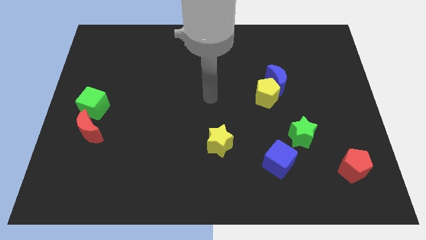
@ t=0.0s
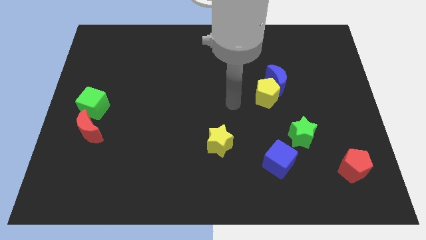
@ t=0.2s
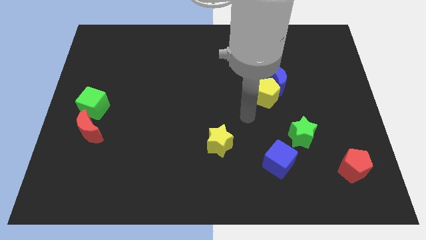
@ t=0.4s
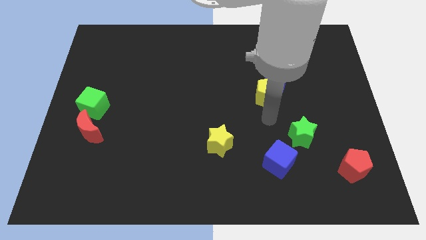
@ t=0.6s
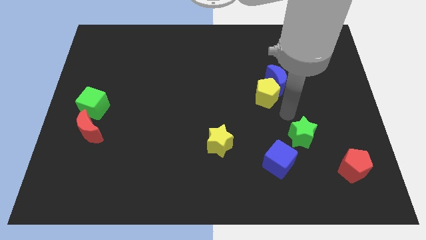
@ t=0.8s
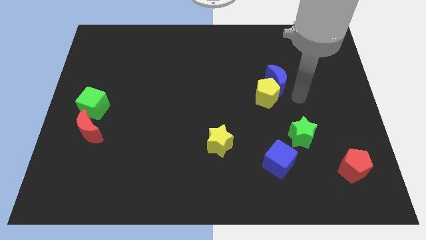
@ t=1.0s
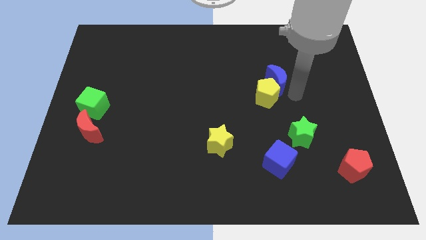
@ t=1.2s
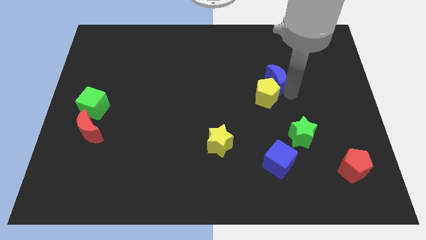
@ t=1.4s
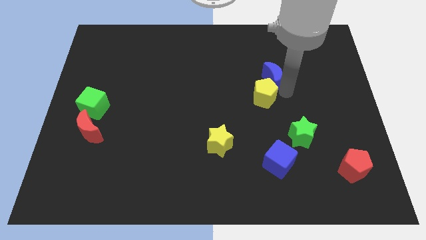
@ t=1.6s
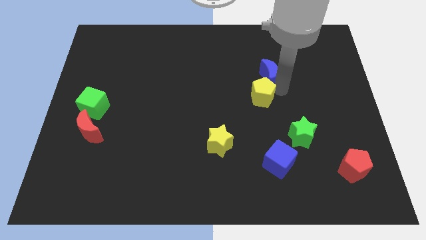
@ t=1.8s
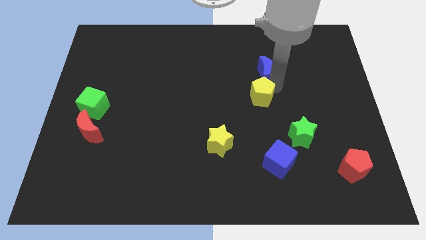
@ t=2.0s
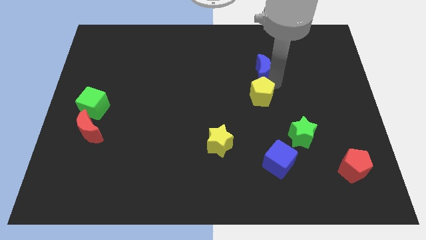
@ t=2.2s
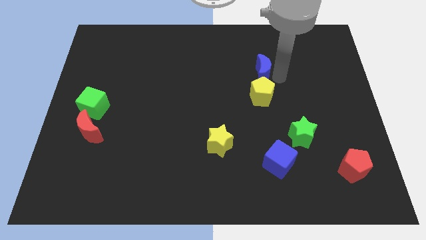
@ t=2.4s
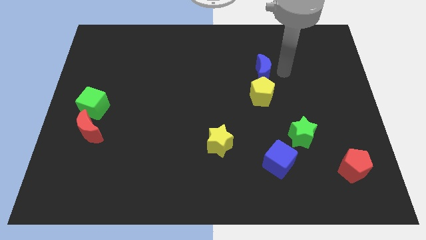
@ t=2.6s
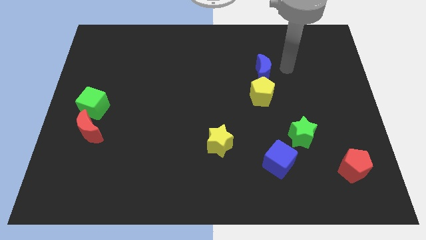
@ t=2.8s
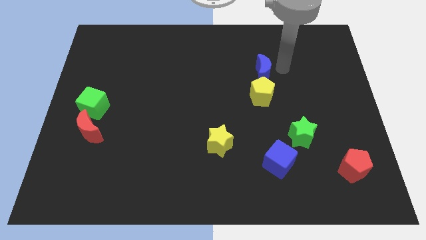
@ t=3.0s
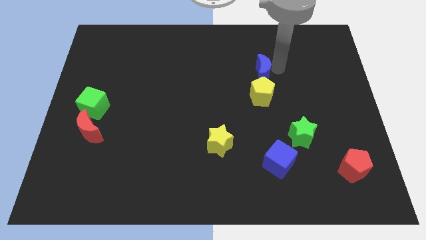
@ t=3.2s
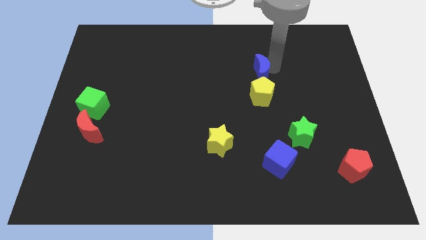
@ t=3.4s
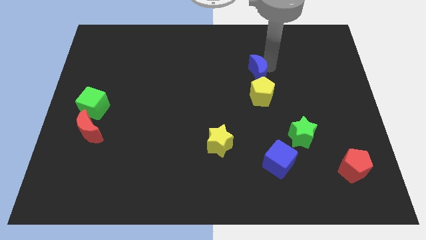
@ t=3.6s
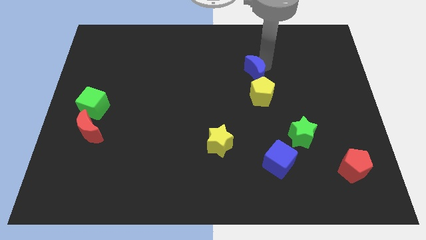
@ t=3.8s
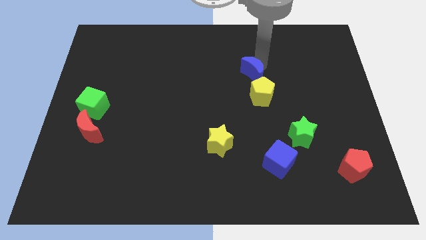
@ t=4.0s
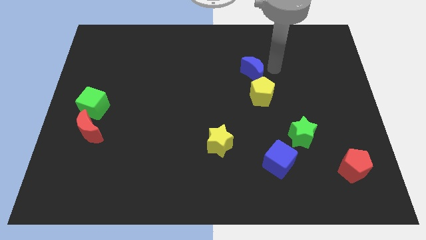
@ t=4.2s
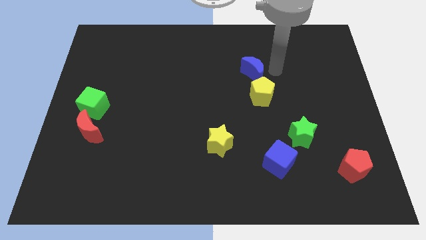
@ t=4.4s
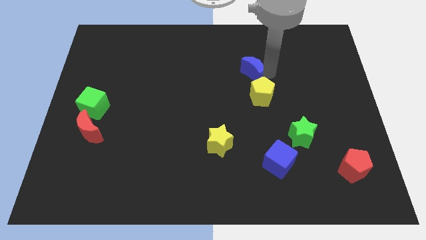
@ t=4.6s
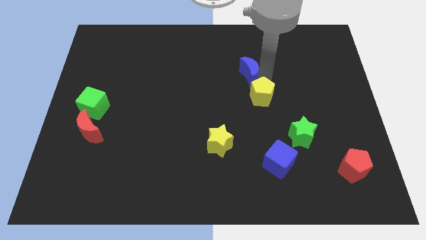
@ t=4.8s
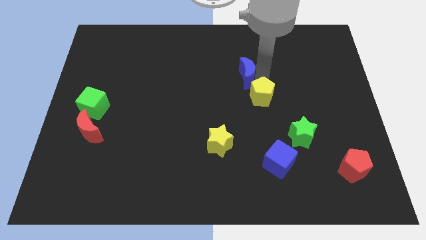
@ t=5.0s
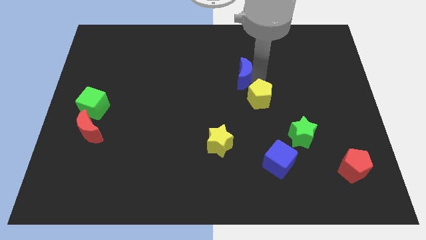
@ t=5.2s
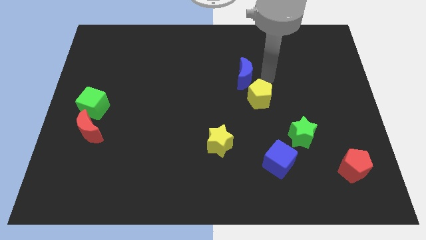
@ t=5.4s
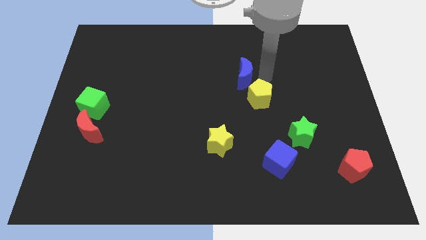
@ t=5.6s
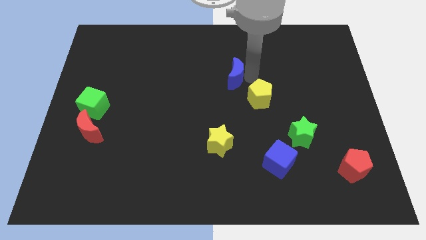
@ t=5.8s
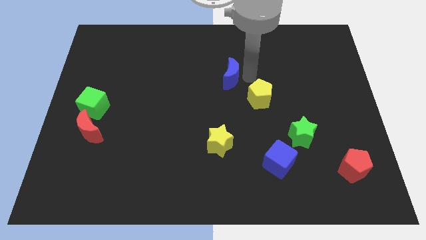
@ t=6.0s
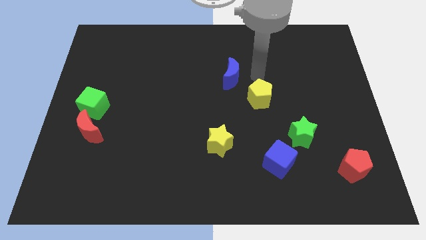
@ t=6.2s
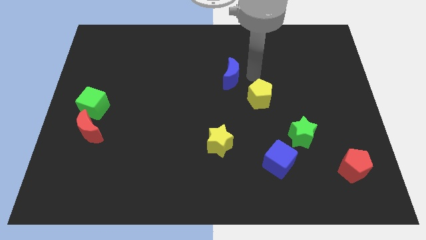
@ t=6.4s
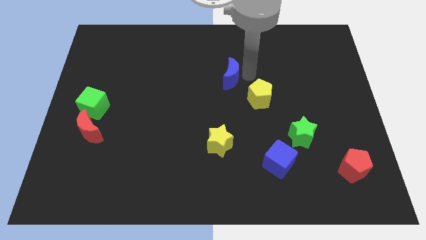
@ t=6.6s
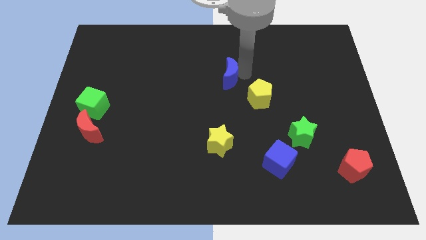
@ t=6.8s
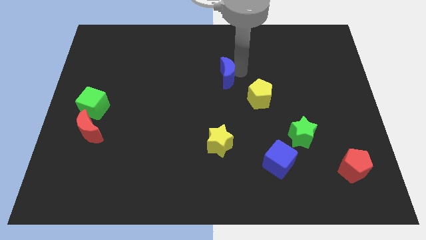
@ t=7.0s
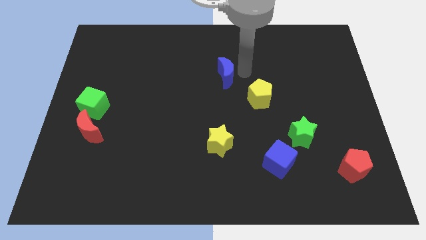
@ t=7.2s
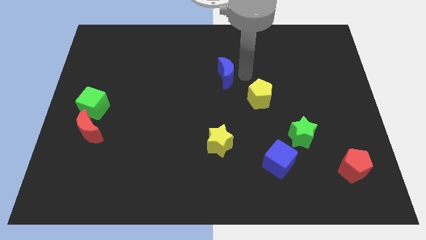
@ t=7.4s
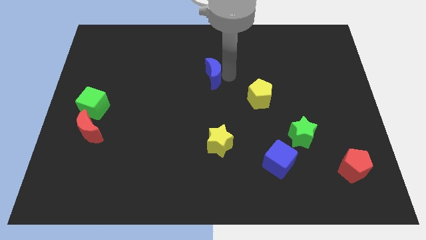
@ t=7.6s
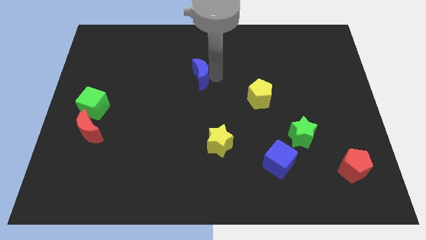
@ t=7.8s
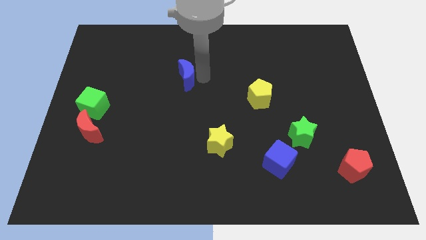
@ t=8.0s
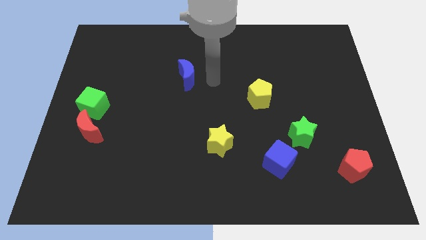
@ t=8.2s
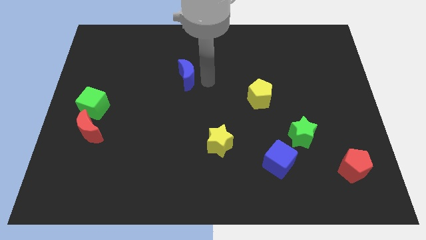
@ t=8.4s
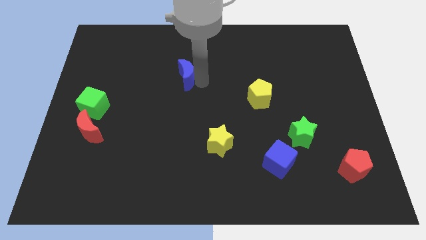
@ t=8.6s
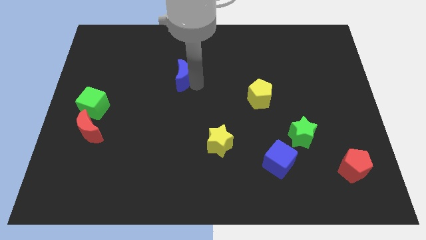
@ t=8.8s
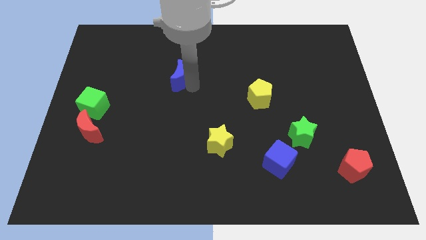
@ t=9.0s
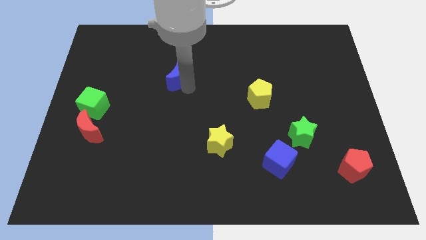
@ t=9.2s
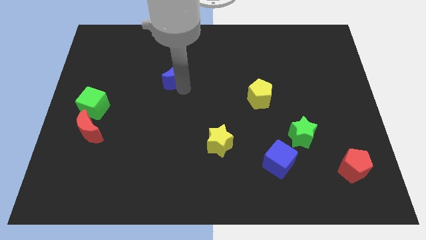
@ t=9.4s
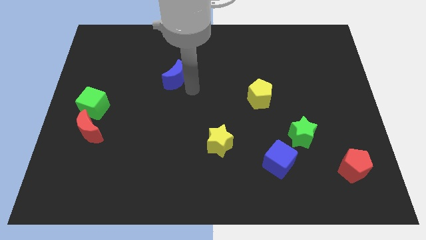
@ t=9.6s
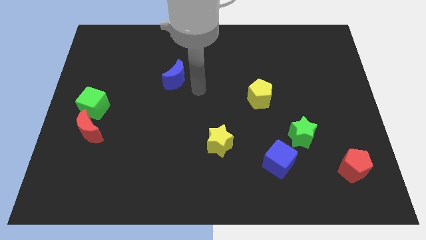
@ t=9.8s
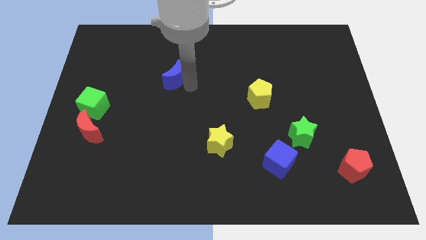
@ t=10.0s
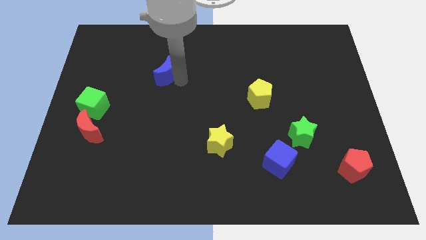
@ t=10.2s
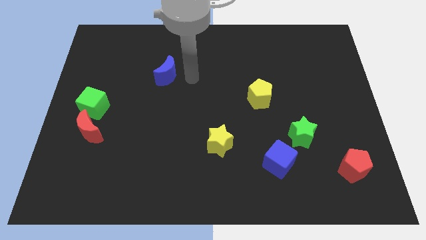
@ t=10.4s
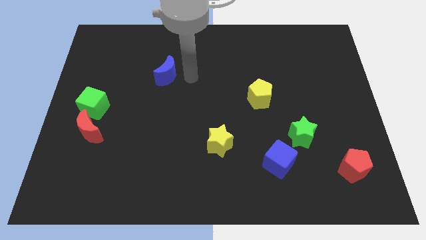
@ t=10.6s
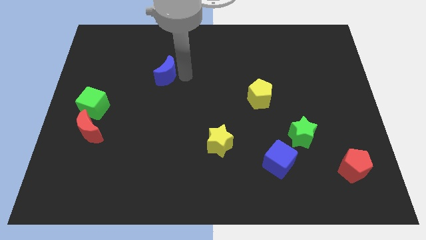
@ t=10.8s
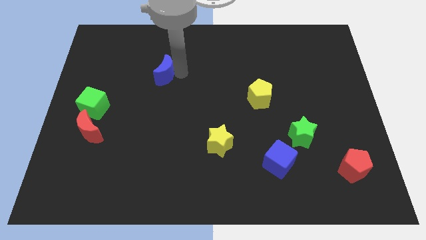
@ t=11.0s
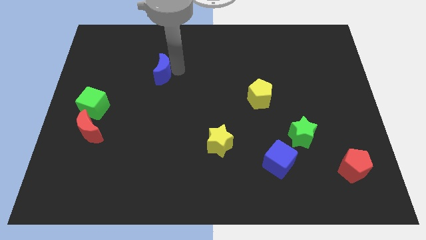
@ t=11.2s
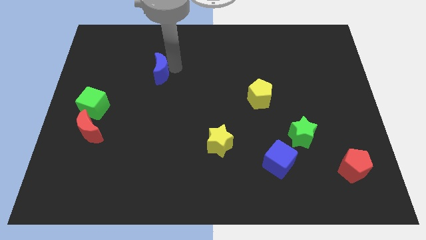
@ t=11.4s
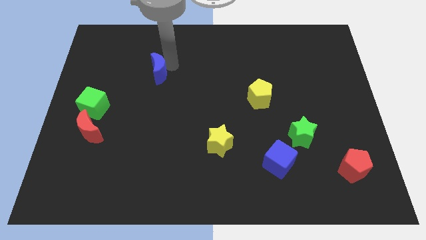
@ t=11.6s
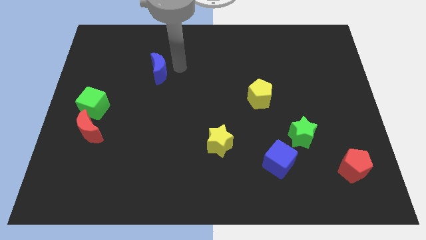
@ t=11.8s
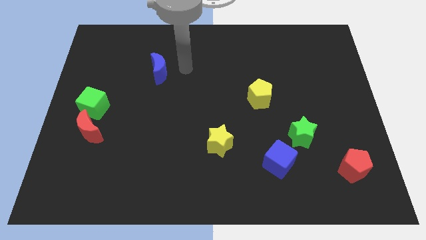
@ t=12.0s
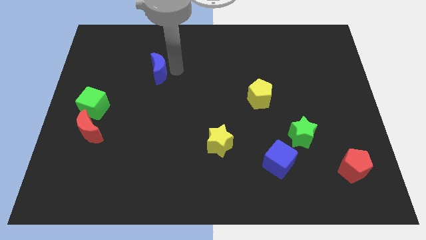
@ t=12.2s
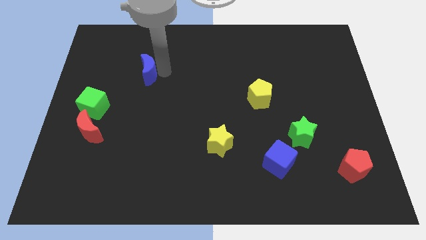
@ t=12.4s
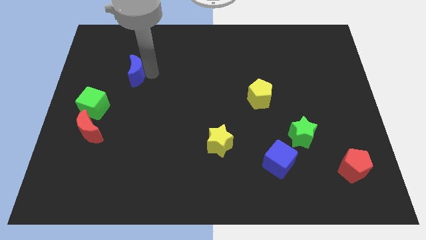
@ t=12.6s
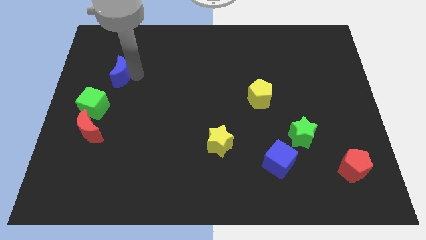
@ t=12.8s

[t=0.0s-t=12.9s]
push the blue moon to the top side of the green cube

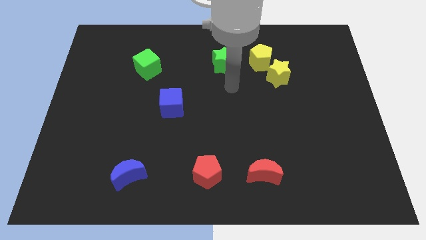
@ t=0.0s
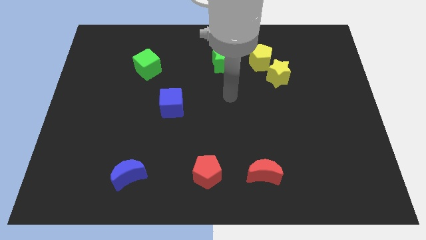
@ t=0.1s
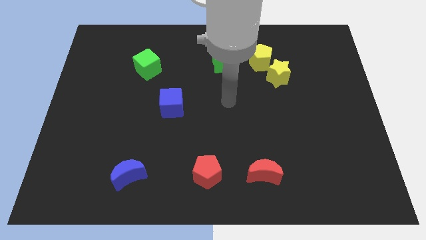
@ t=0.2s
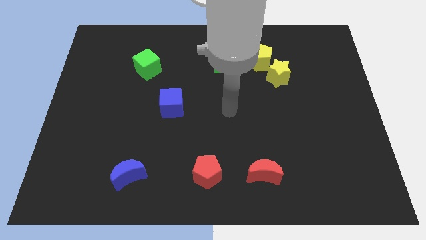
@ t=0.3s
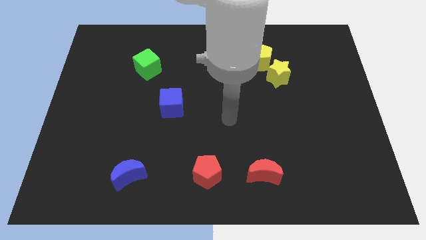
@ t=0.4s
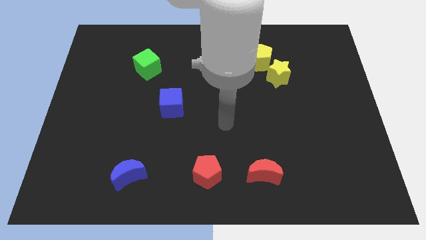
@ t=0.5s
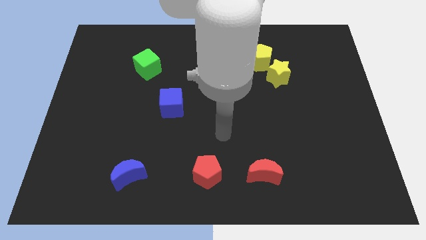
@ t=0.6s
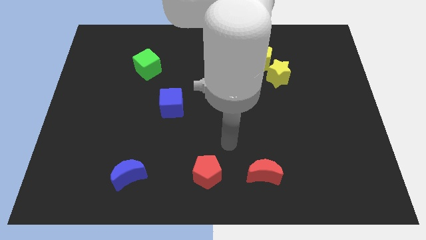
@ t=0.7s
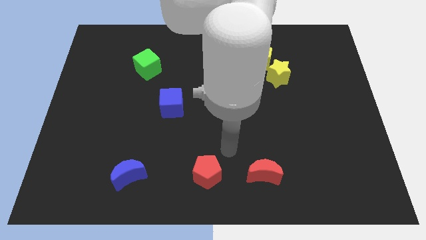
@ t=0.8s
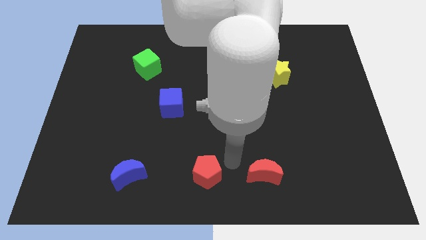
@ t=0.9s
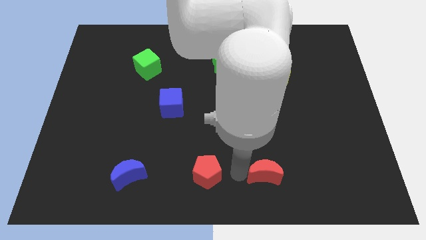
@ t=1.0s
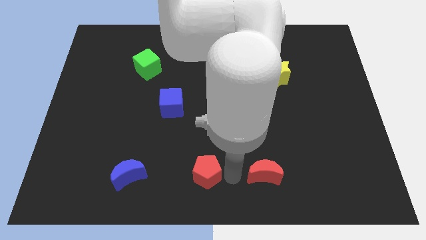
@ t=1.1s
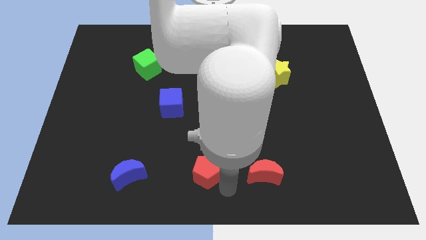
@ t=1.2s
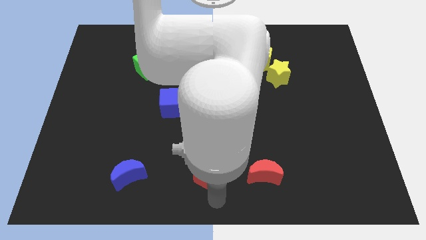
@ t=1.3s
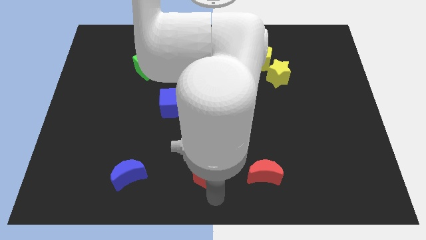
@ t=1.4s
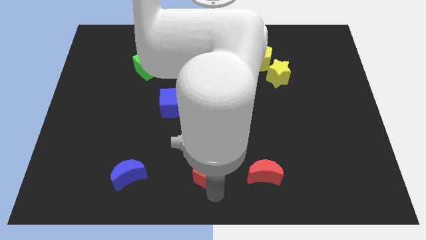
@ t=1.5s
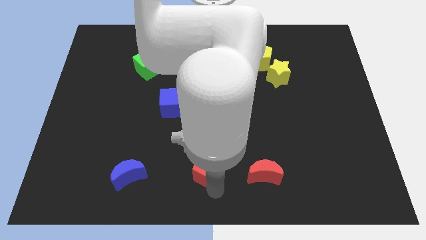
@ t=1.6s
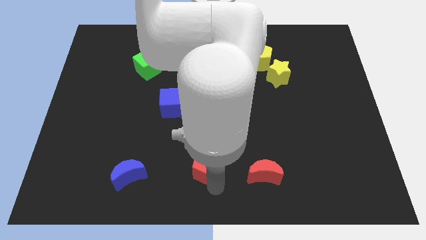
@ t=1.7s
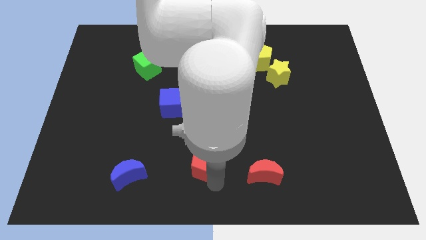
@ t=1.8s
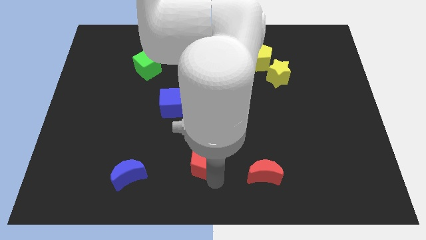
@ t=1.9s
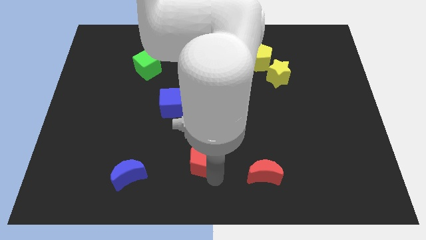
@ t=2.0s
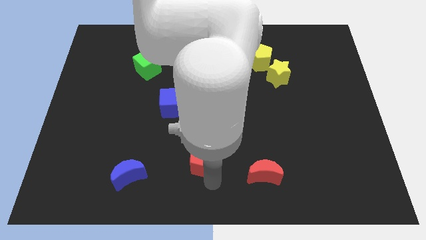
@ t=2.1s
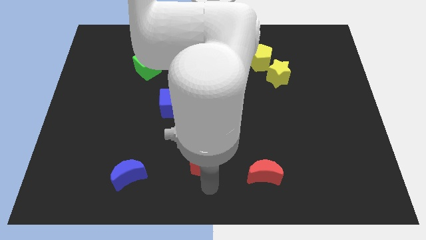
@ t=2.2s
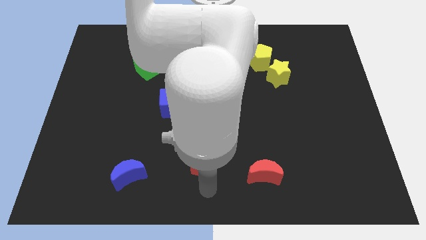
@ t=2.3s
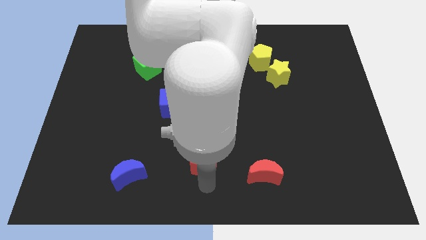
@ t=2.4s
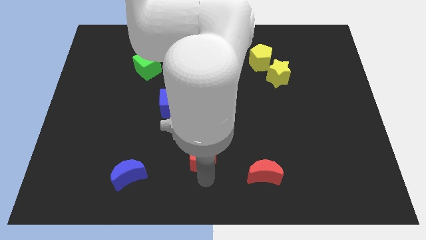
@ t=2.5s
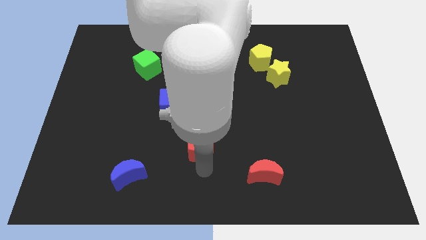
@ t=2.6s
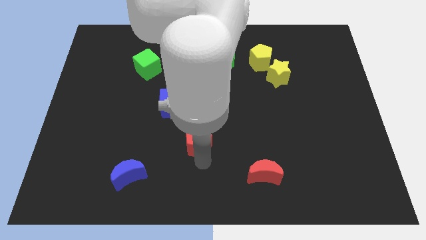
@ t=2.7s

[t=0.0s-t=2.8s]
push the red pentagon to the bottom right side of the blue cube
